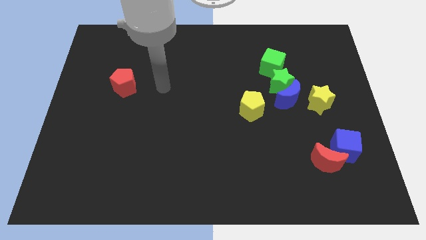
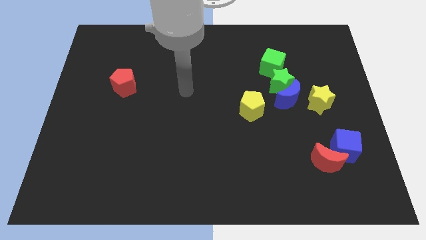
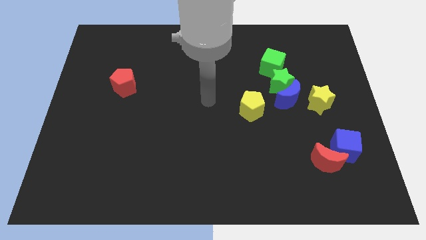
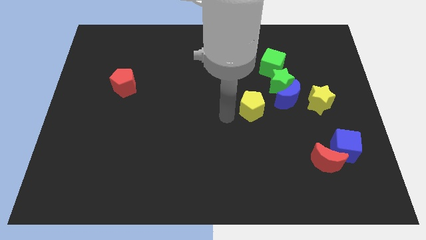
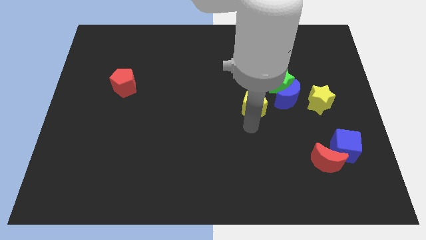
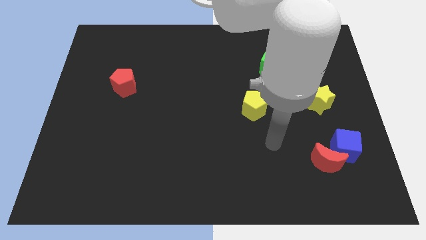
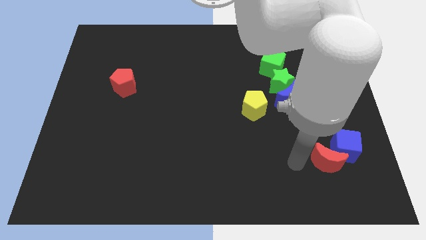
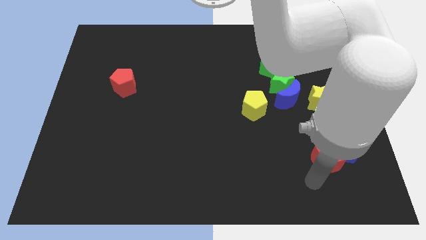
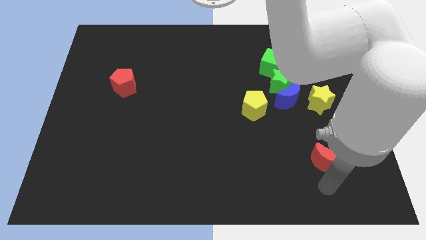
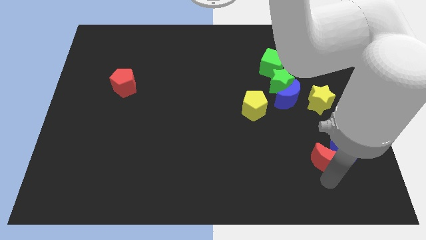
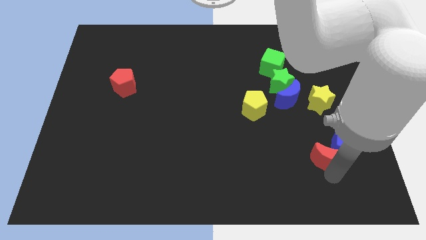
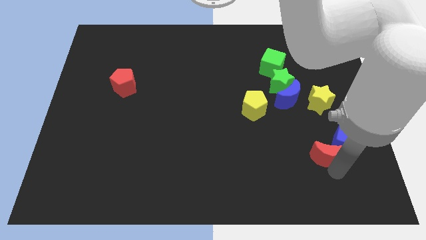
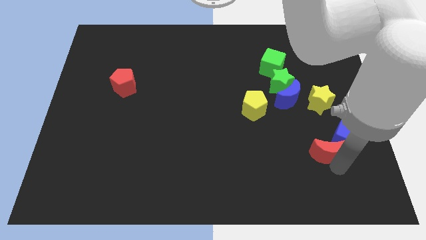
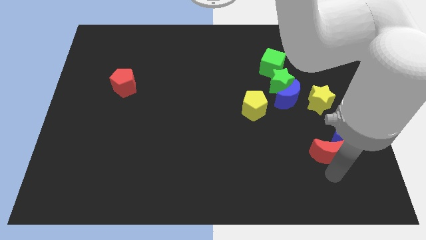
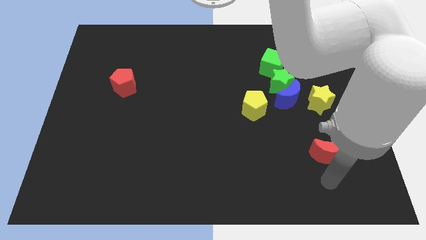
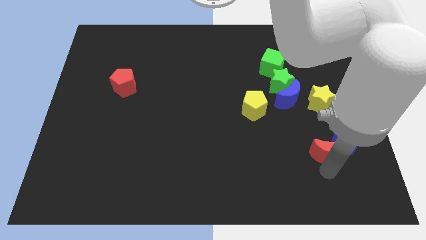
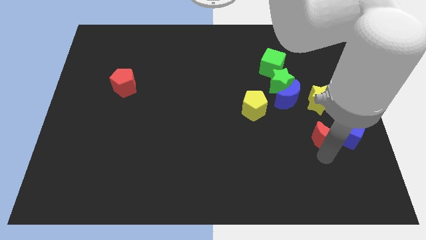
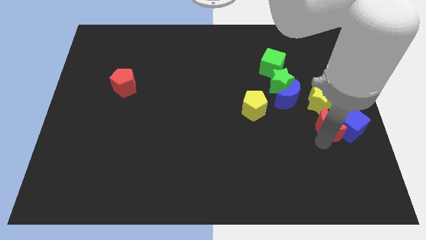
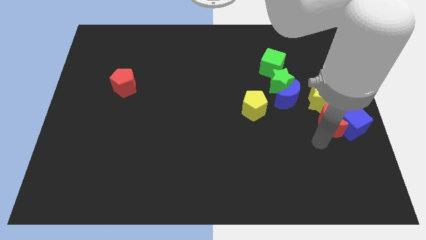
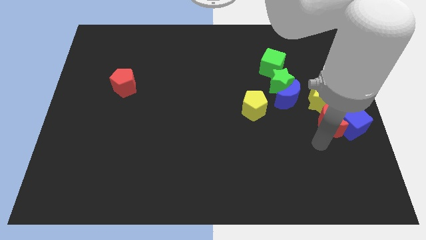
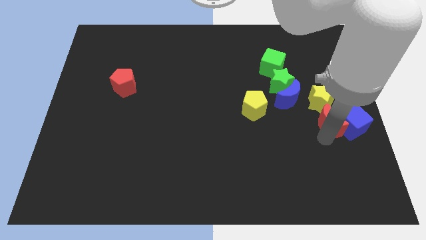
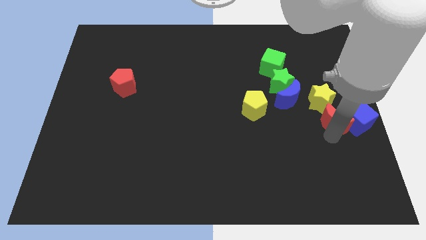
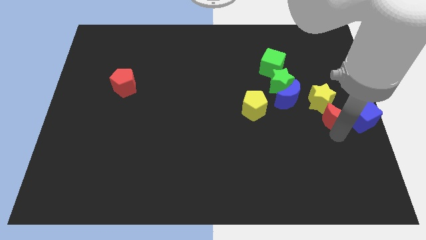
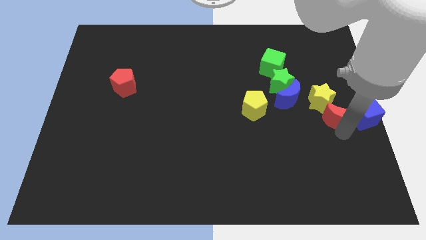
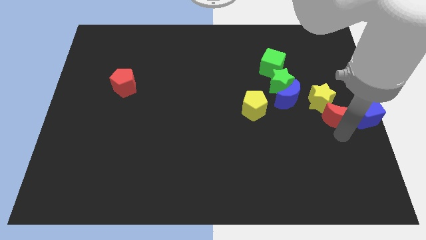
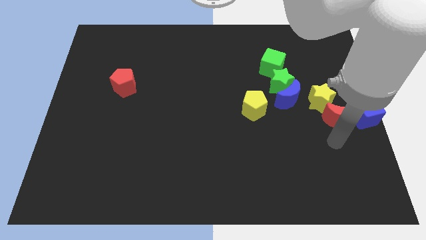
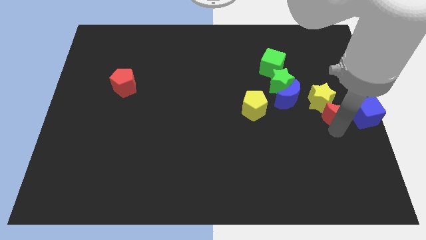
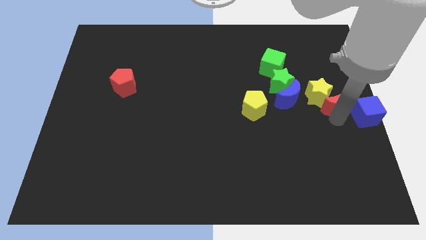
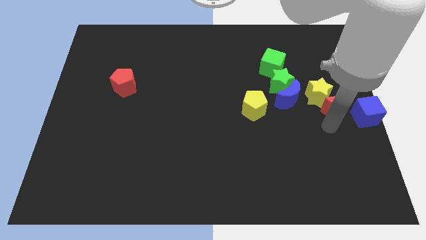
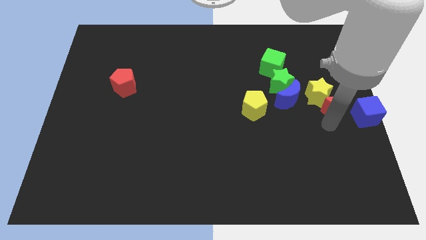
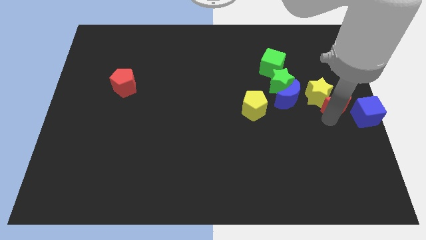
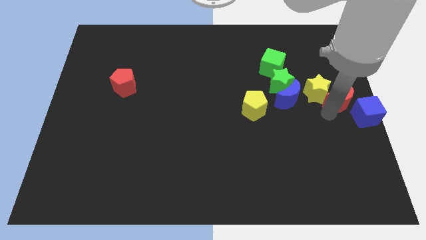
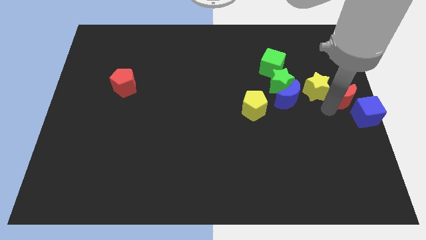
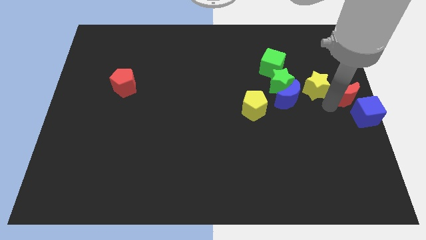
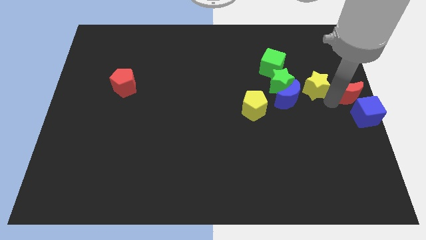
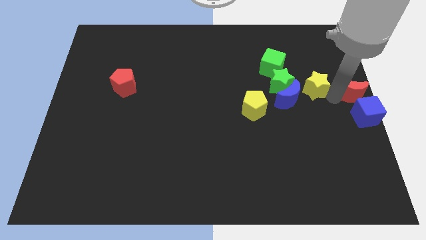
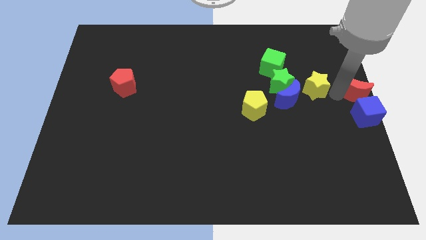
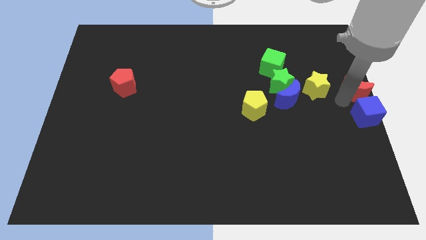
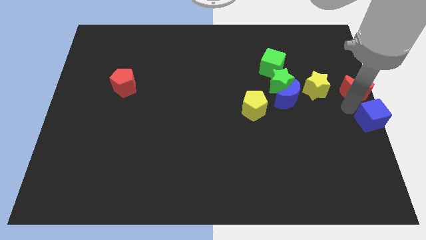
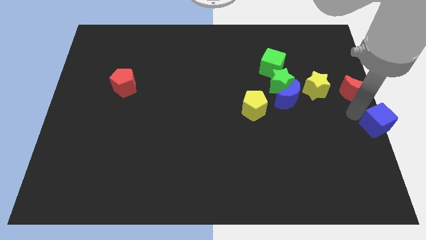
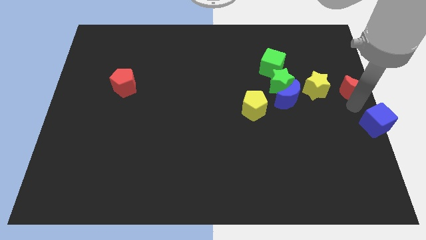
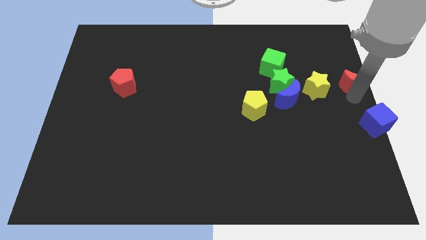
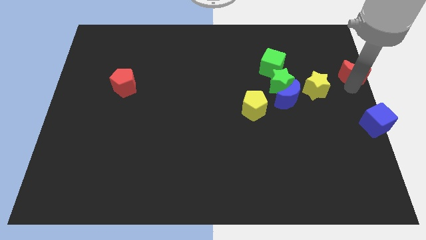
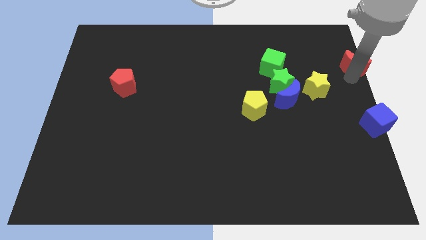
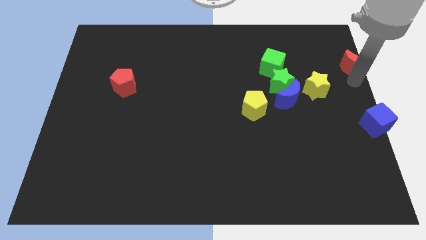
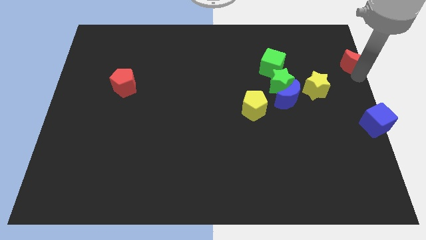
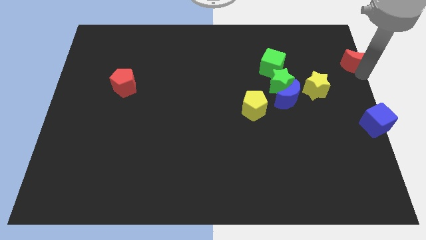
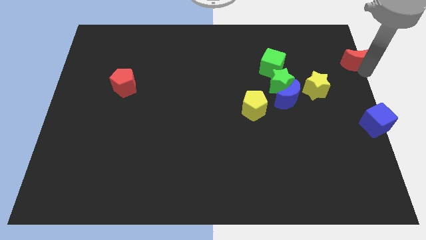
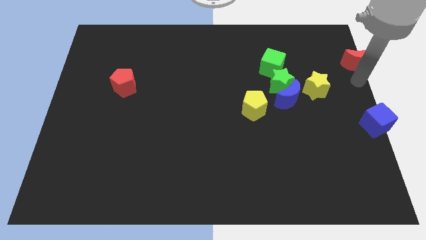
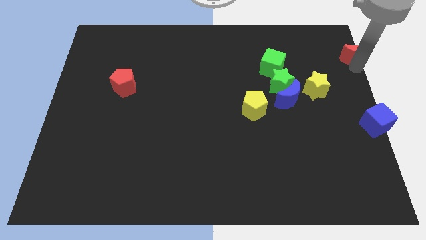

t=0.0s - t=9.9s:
slide the red moon to the top right of the board

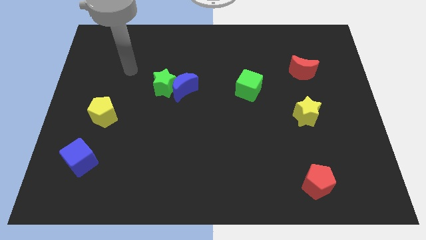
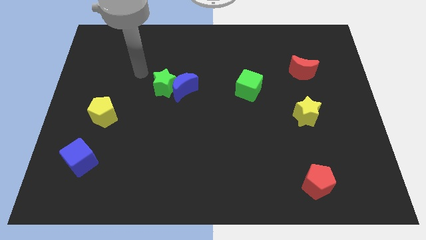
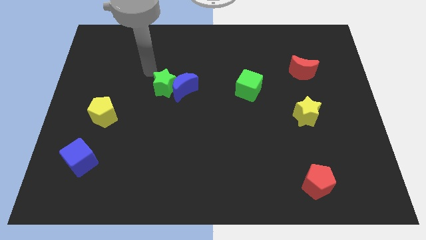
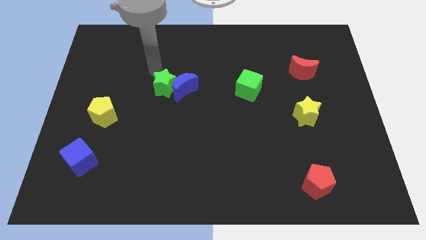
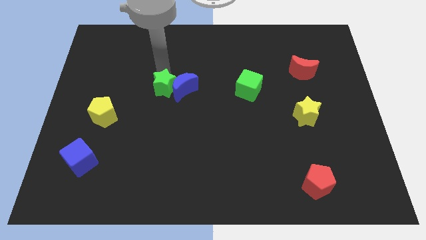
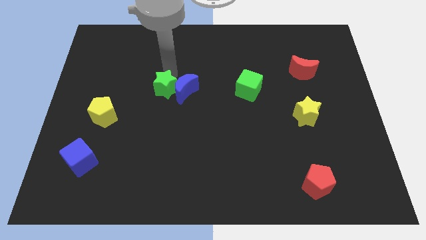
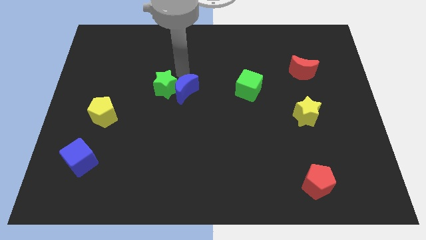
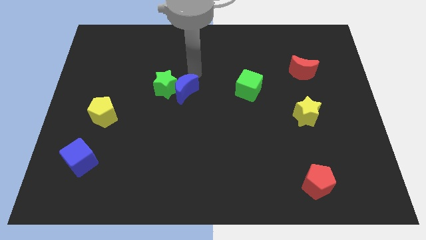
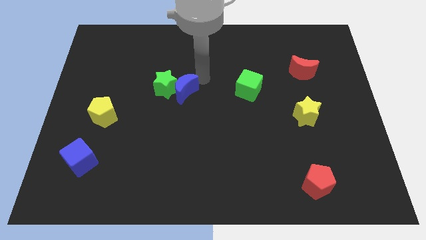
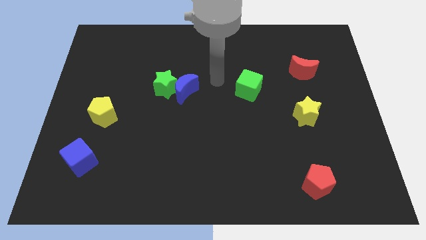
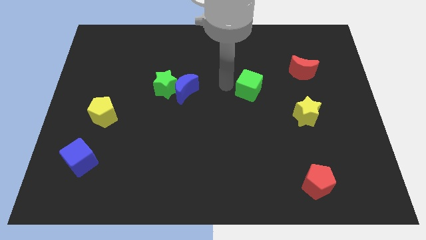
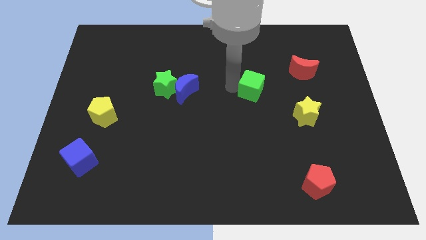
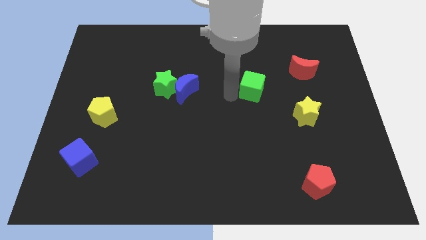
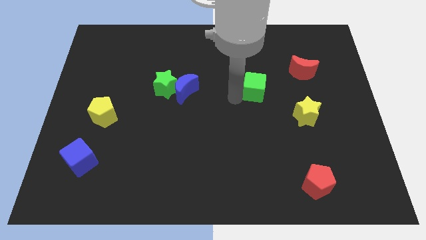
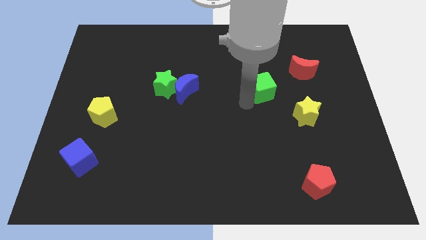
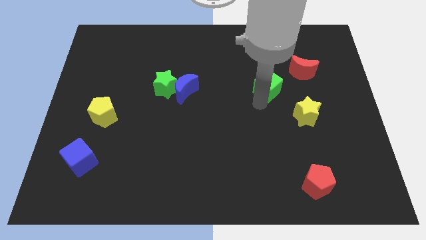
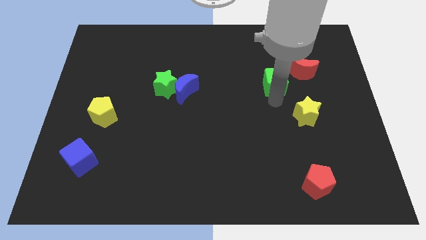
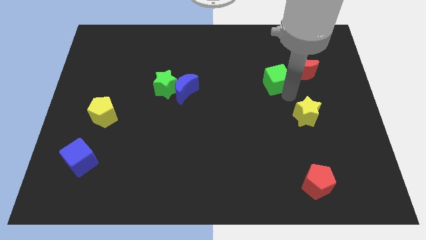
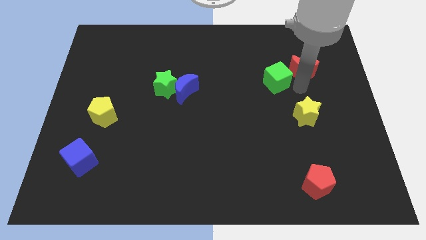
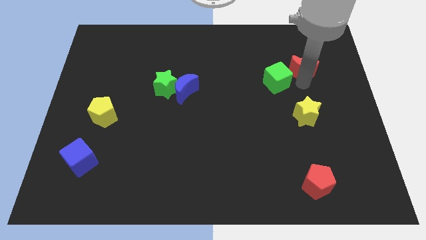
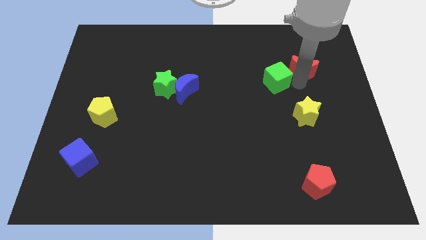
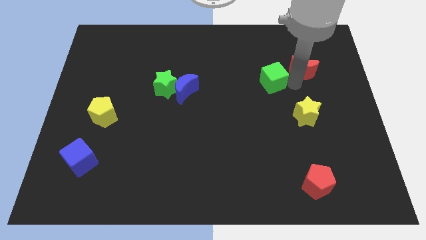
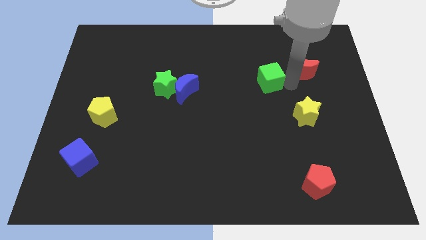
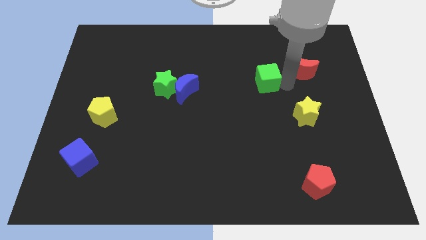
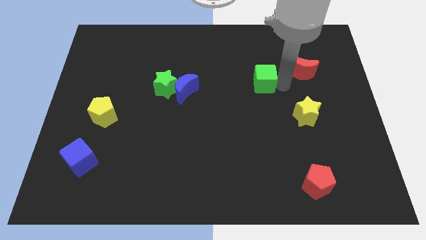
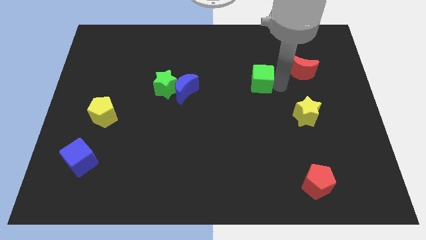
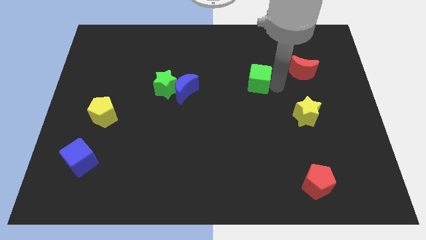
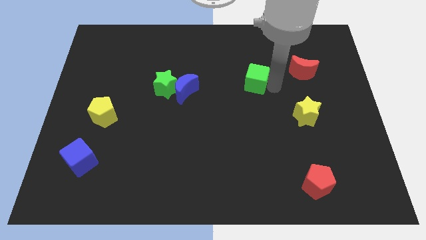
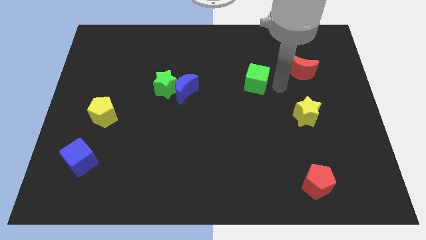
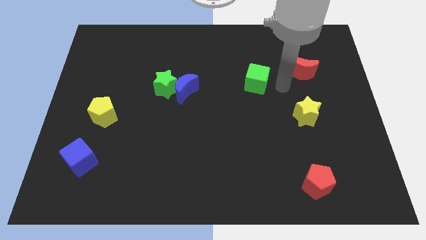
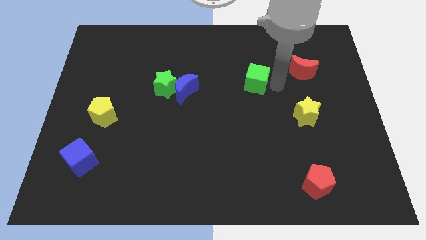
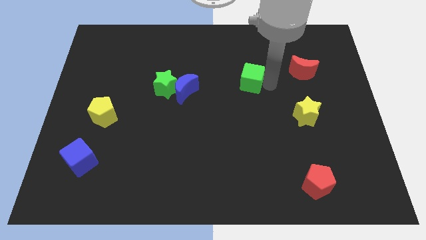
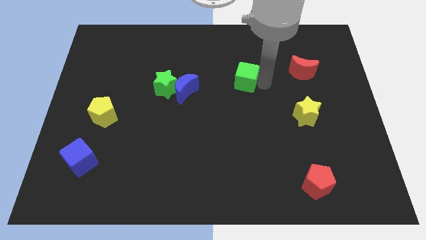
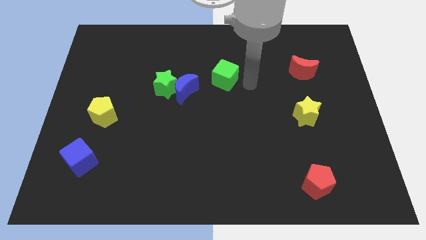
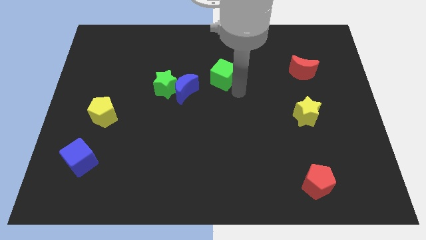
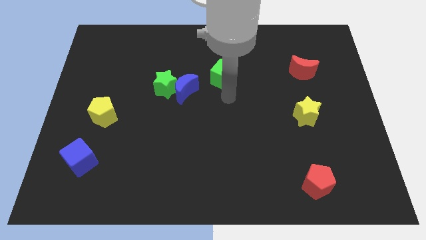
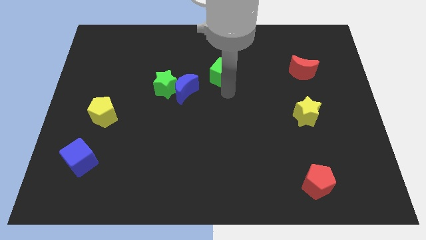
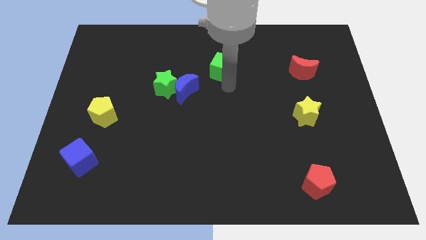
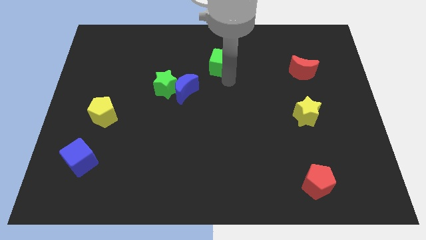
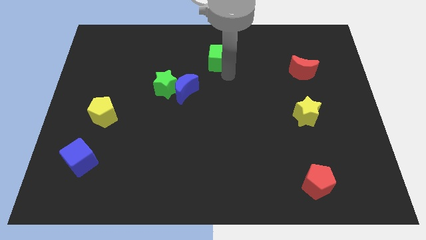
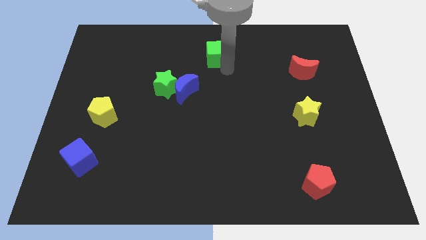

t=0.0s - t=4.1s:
slide the green cube to the top
